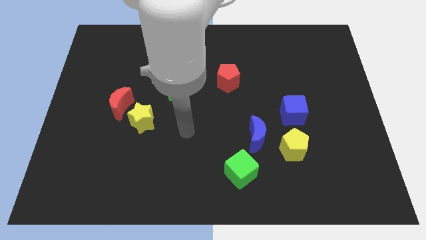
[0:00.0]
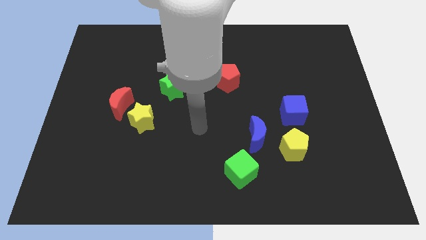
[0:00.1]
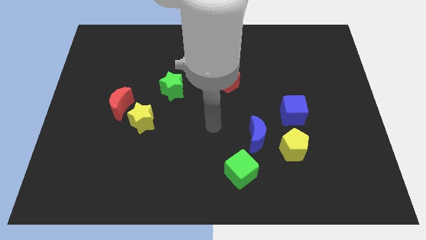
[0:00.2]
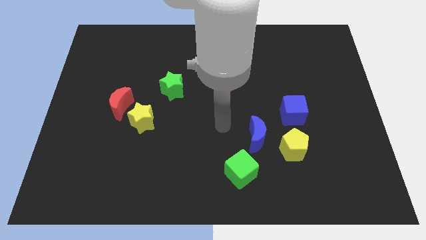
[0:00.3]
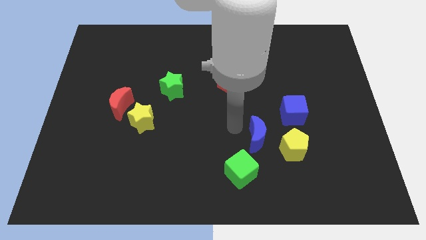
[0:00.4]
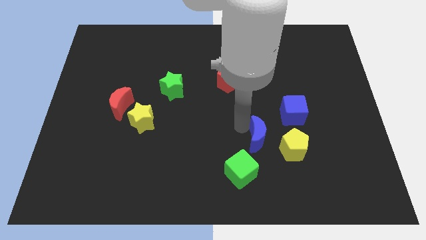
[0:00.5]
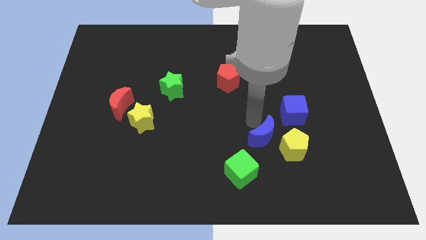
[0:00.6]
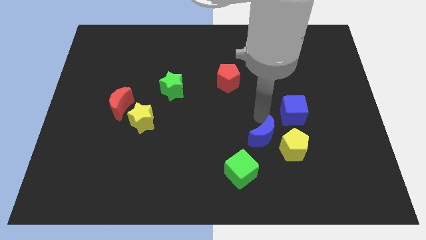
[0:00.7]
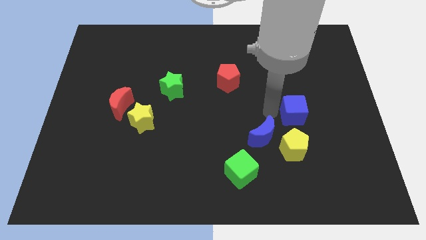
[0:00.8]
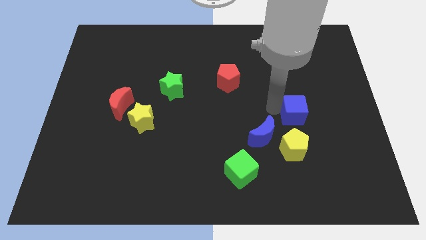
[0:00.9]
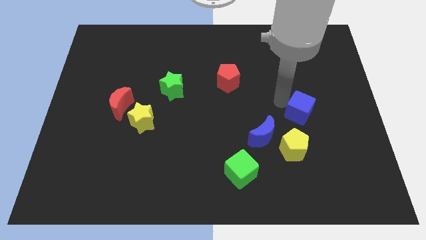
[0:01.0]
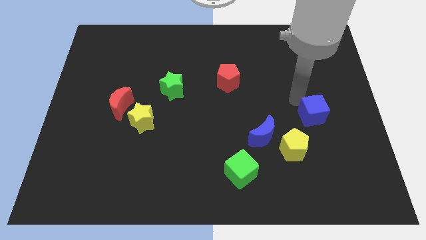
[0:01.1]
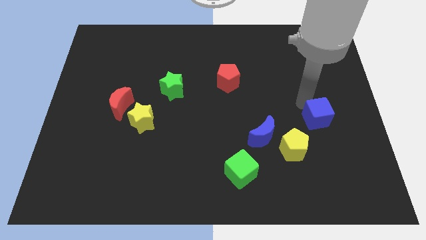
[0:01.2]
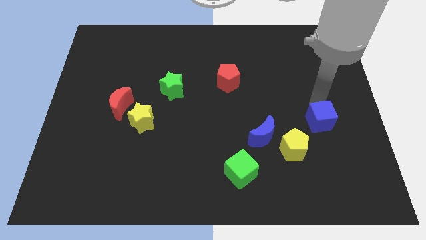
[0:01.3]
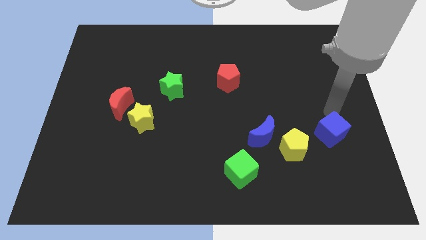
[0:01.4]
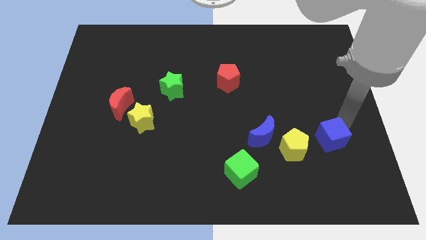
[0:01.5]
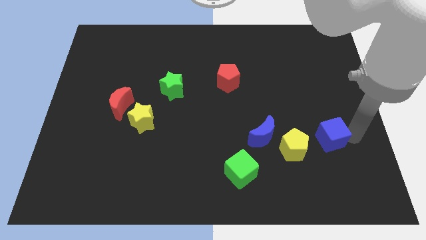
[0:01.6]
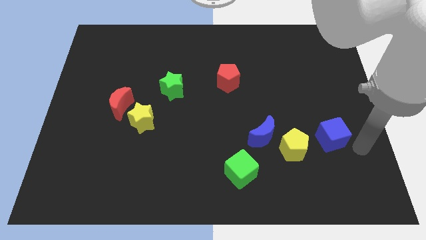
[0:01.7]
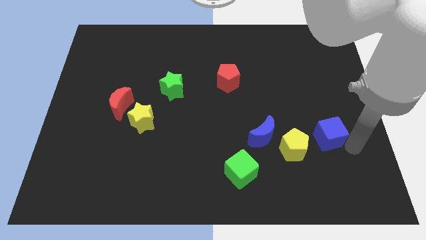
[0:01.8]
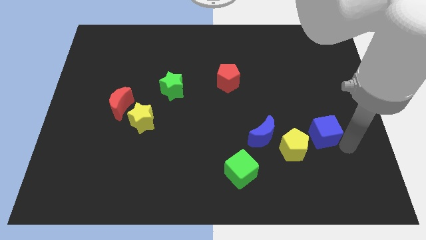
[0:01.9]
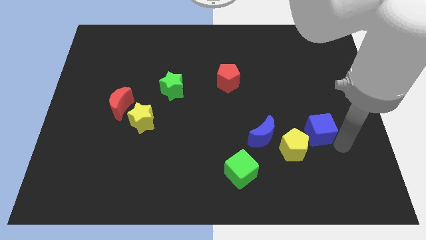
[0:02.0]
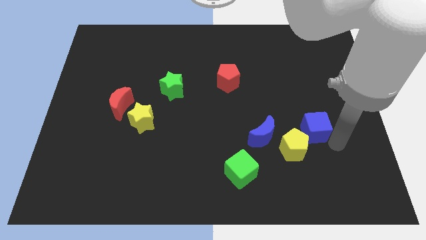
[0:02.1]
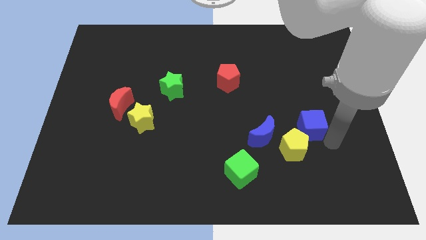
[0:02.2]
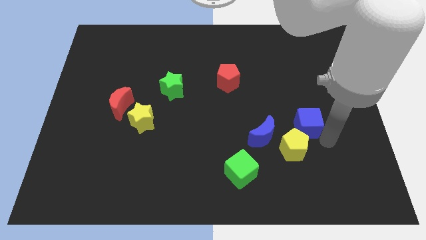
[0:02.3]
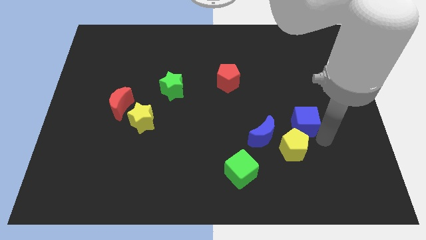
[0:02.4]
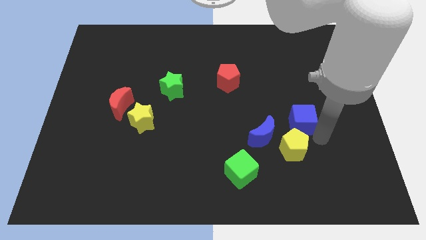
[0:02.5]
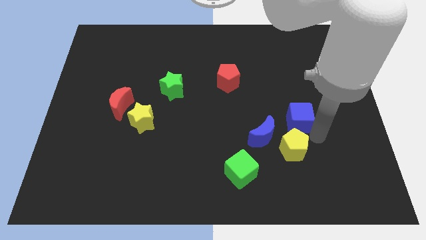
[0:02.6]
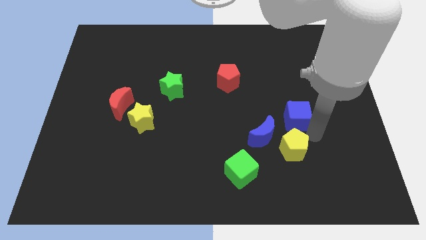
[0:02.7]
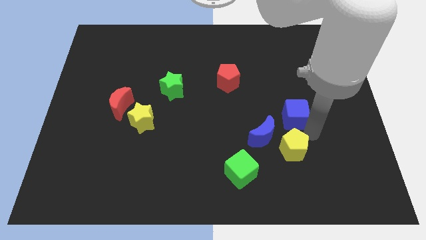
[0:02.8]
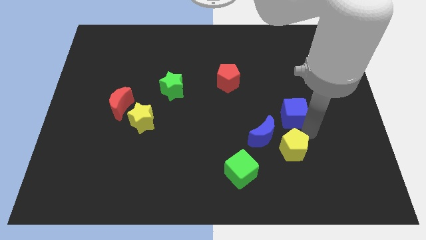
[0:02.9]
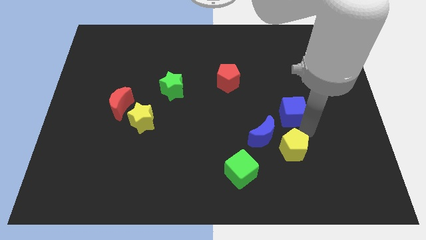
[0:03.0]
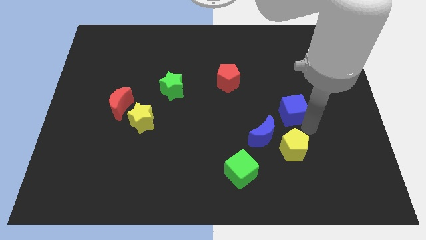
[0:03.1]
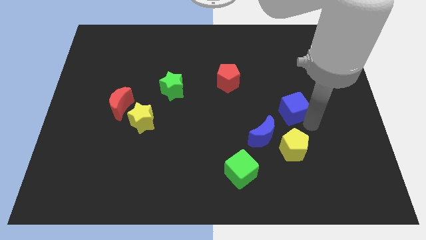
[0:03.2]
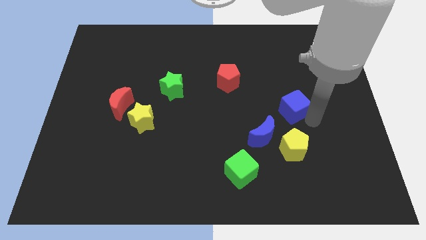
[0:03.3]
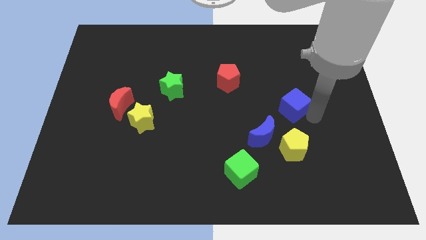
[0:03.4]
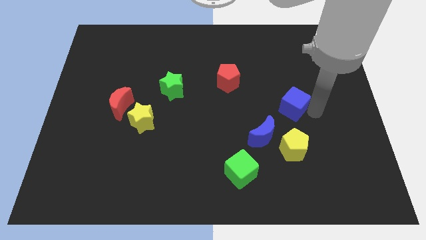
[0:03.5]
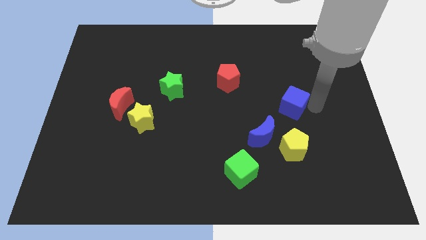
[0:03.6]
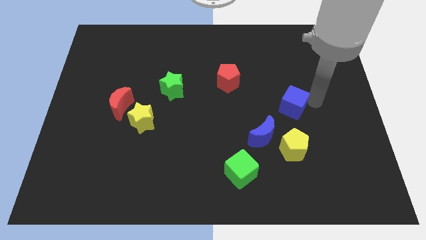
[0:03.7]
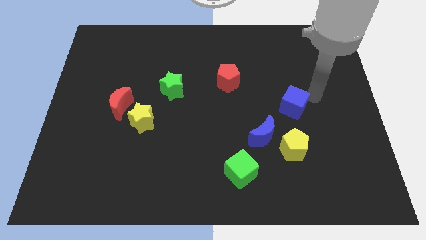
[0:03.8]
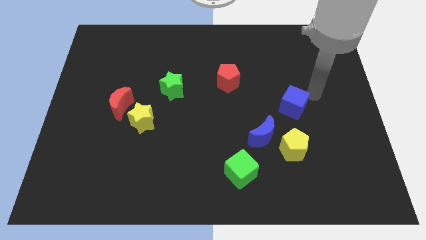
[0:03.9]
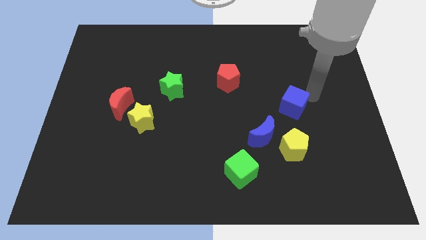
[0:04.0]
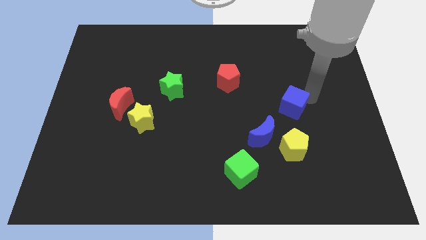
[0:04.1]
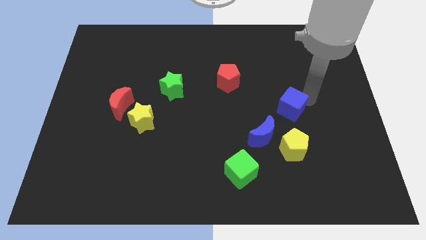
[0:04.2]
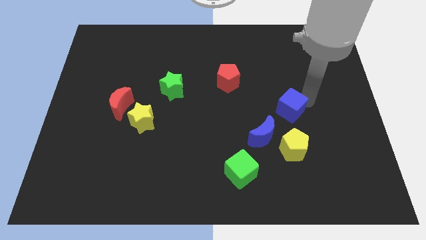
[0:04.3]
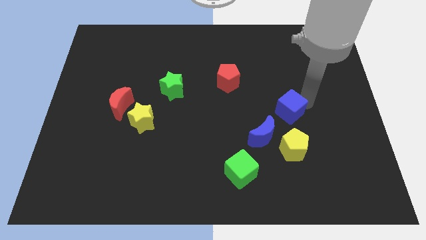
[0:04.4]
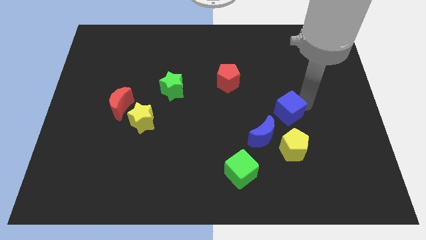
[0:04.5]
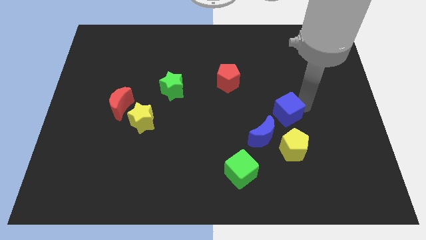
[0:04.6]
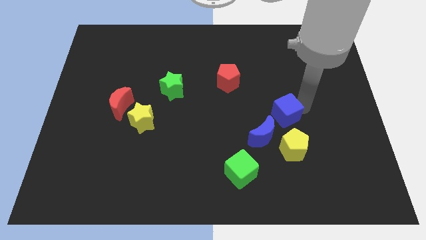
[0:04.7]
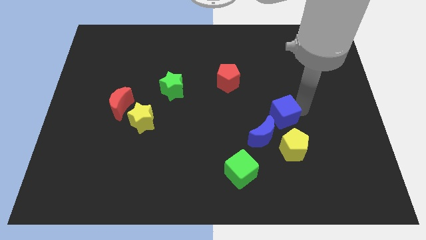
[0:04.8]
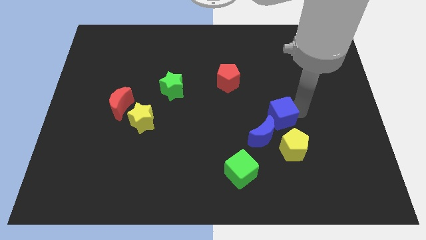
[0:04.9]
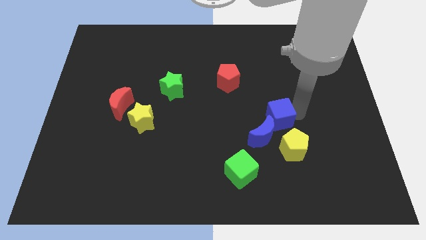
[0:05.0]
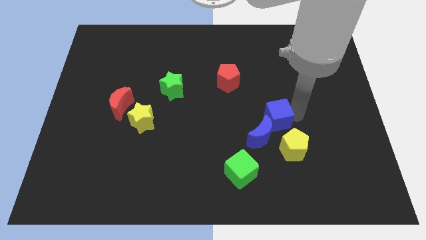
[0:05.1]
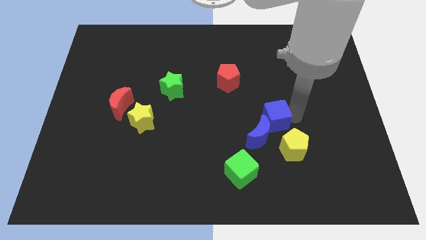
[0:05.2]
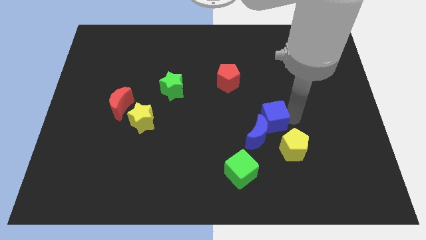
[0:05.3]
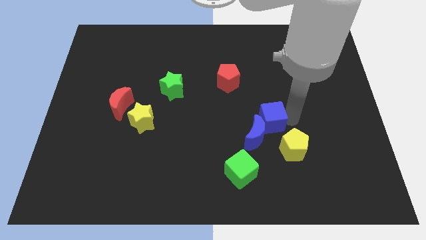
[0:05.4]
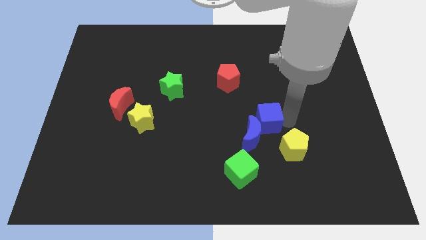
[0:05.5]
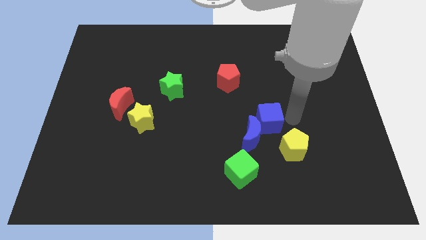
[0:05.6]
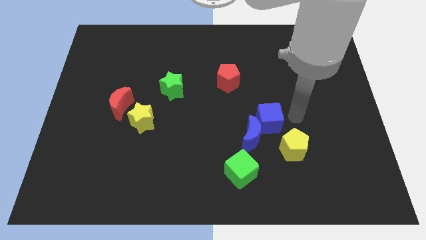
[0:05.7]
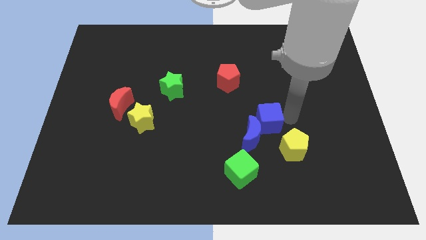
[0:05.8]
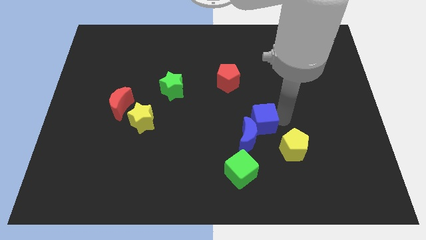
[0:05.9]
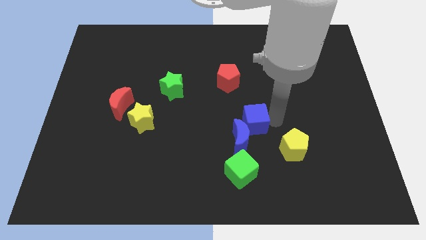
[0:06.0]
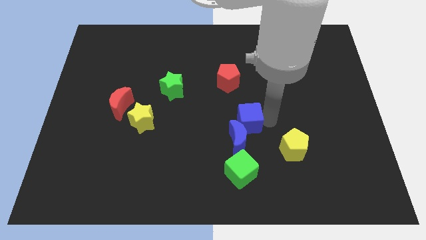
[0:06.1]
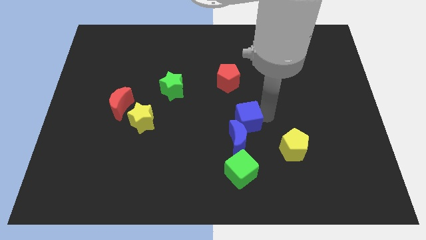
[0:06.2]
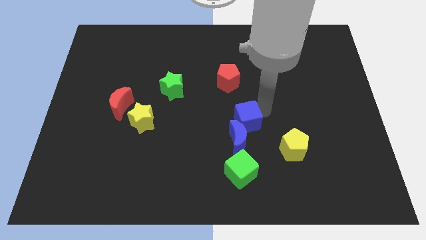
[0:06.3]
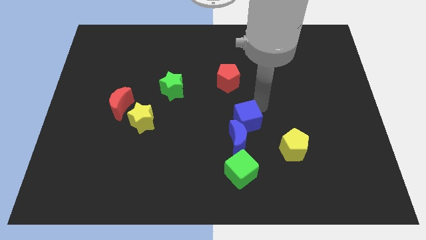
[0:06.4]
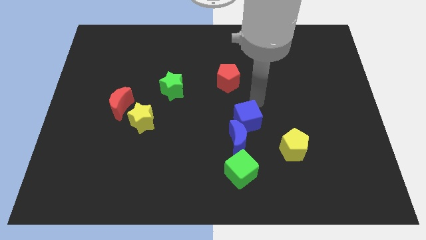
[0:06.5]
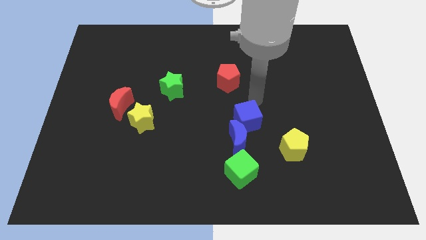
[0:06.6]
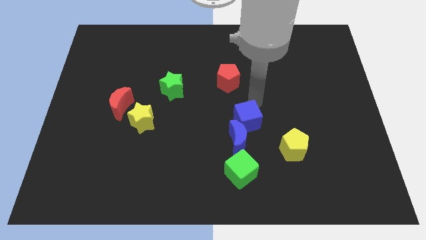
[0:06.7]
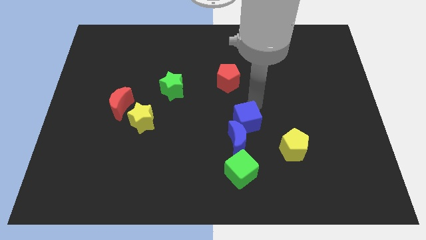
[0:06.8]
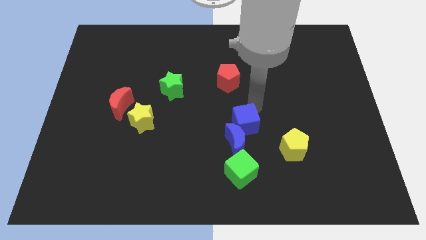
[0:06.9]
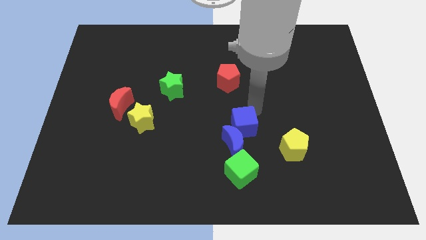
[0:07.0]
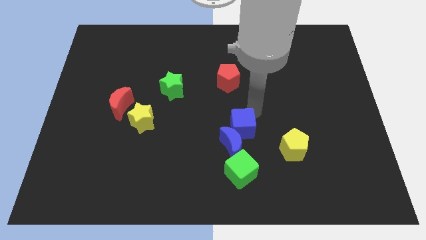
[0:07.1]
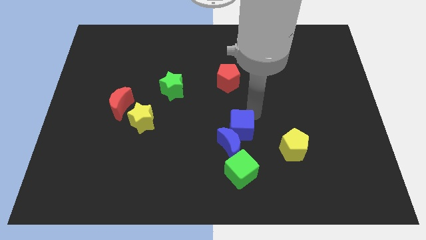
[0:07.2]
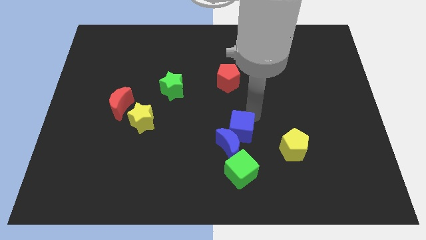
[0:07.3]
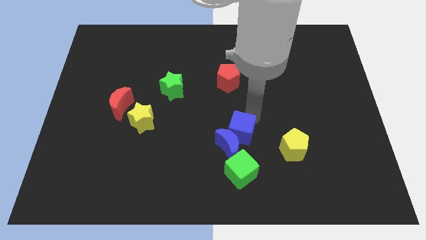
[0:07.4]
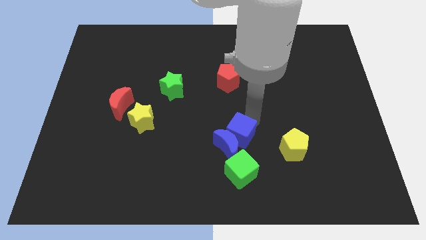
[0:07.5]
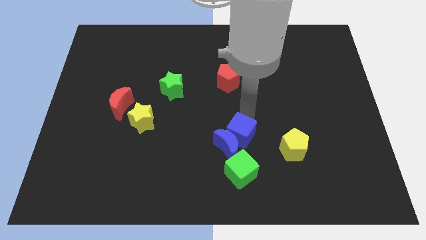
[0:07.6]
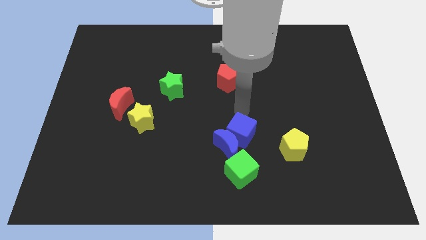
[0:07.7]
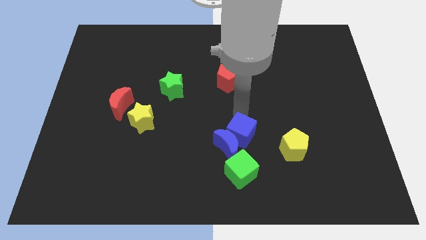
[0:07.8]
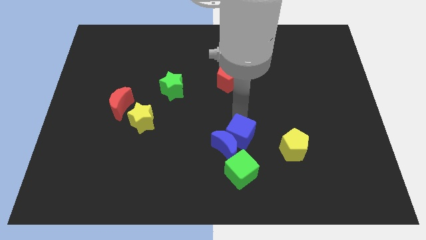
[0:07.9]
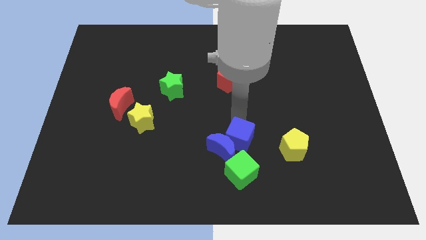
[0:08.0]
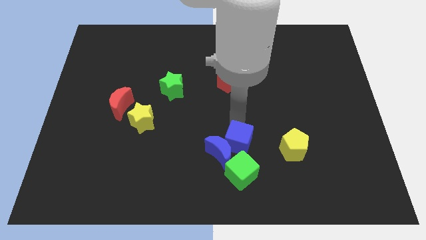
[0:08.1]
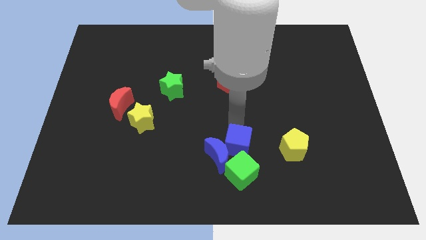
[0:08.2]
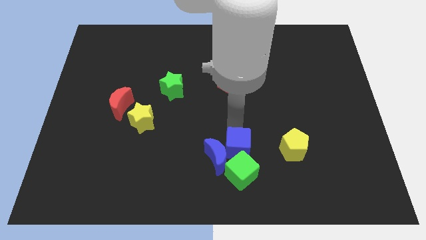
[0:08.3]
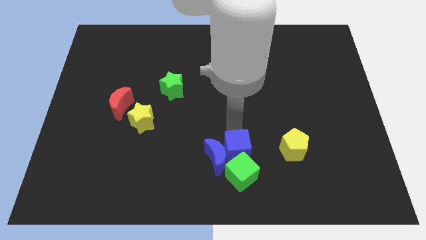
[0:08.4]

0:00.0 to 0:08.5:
move the blue cube towards the green cube
